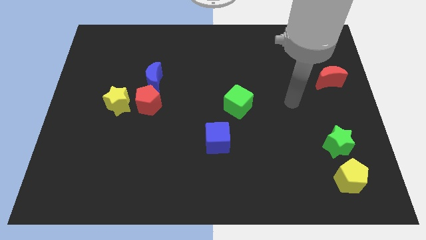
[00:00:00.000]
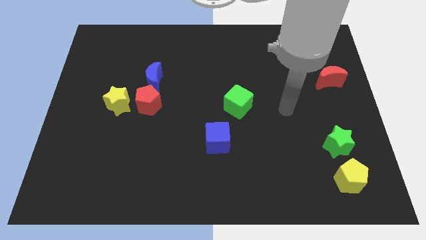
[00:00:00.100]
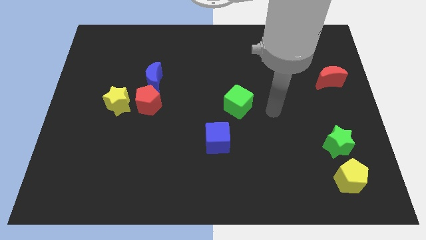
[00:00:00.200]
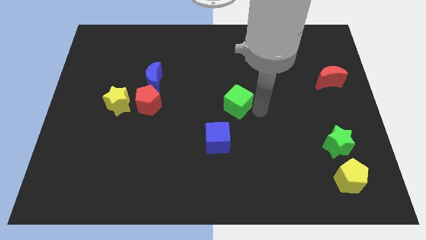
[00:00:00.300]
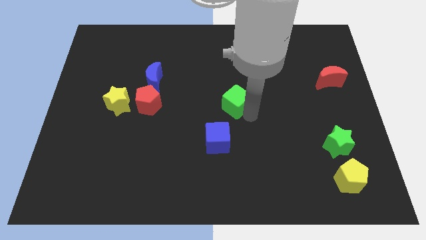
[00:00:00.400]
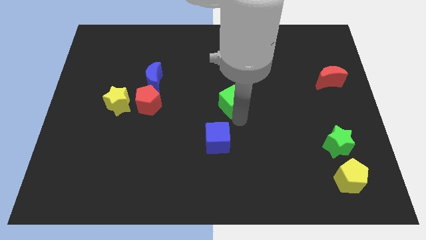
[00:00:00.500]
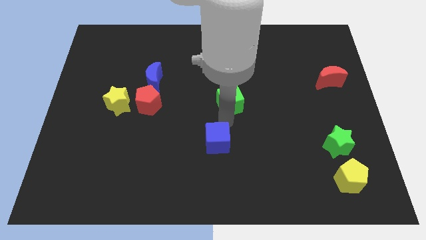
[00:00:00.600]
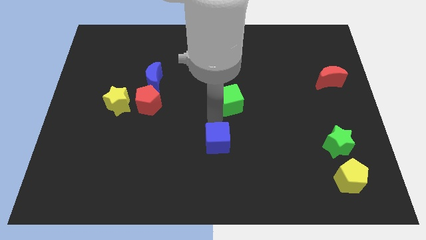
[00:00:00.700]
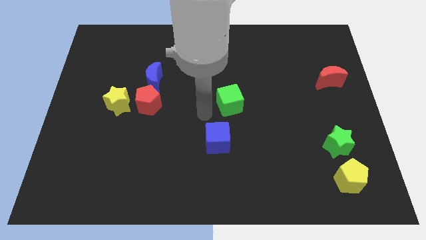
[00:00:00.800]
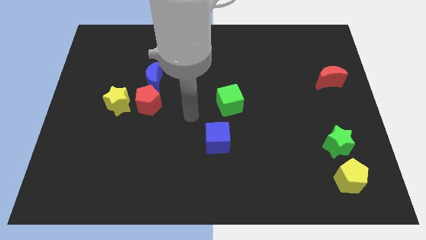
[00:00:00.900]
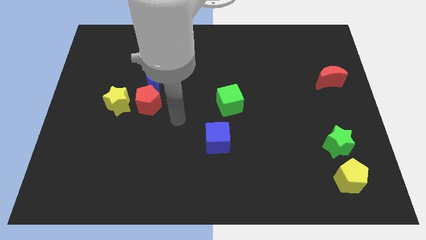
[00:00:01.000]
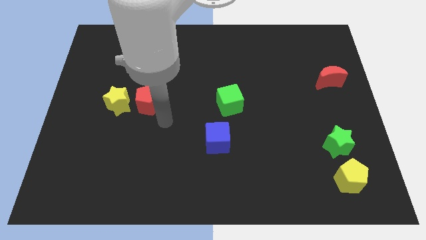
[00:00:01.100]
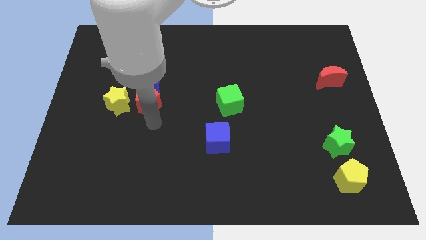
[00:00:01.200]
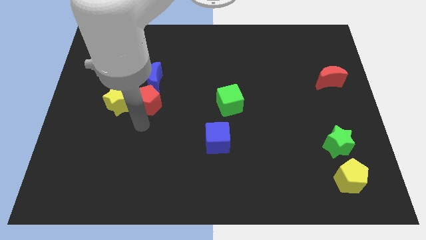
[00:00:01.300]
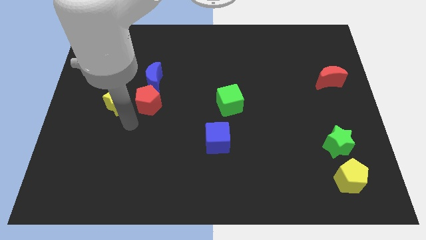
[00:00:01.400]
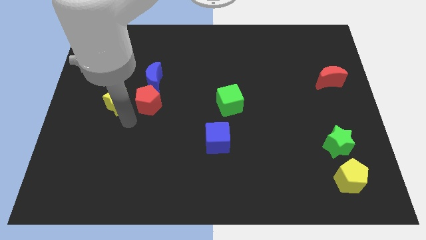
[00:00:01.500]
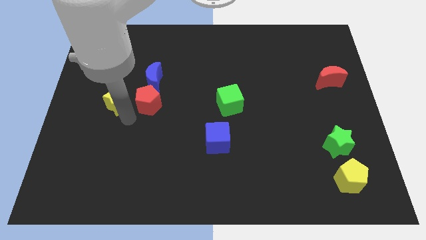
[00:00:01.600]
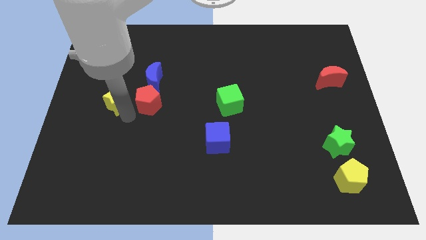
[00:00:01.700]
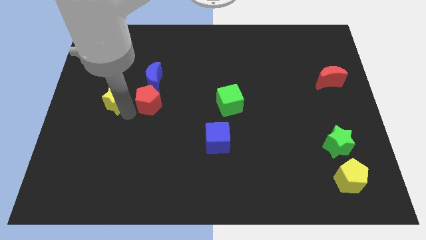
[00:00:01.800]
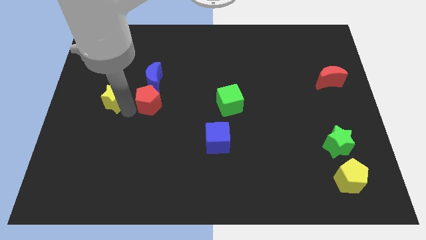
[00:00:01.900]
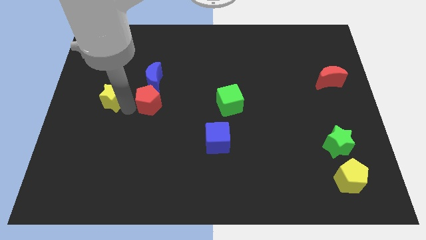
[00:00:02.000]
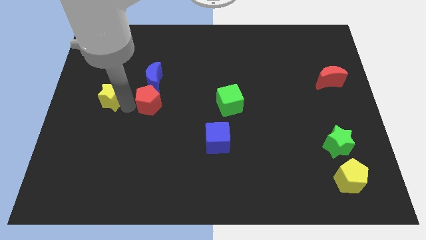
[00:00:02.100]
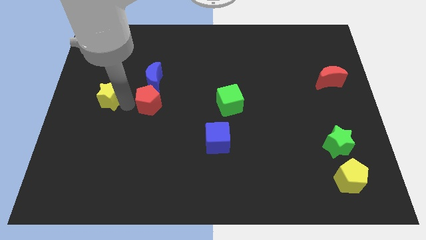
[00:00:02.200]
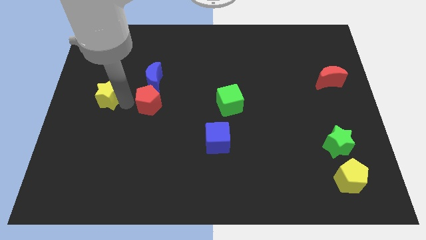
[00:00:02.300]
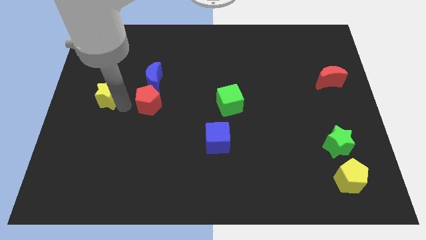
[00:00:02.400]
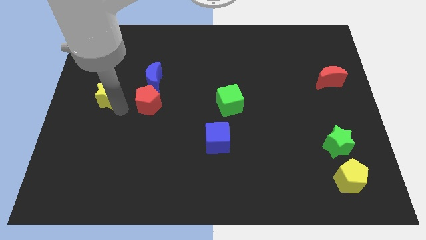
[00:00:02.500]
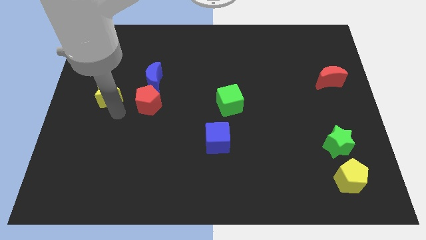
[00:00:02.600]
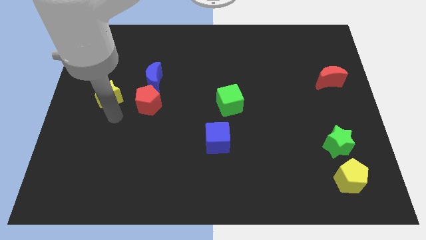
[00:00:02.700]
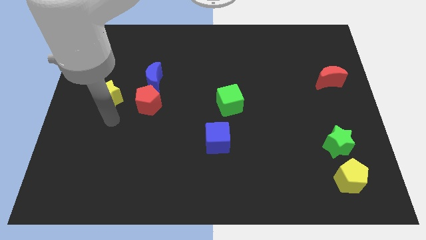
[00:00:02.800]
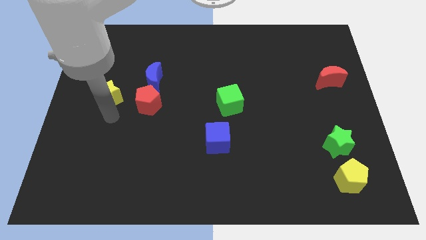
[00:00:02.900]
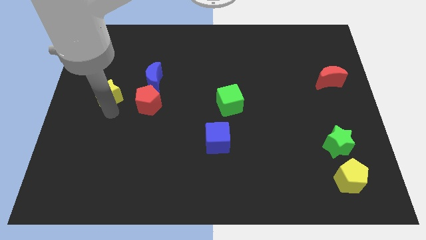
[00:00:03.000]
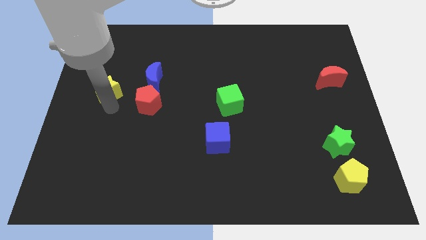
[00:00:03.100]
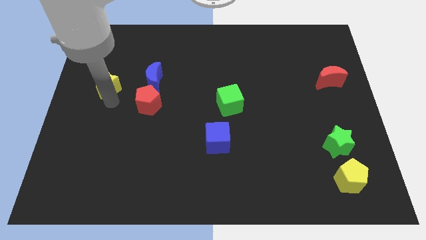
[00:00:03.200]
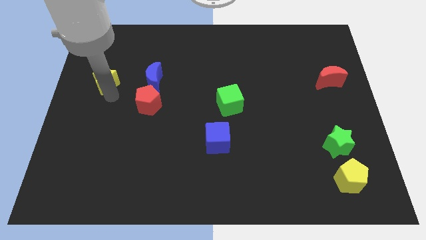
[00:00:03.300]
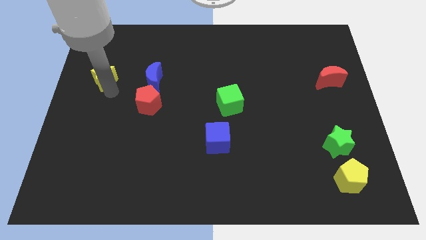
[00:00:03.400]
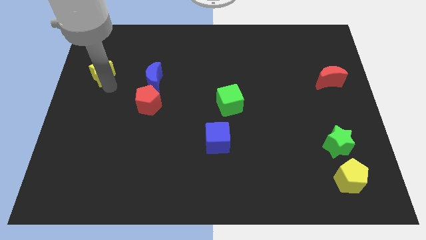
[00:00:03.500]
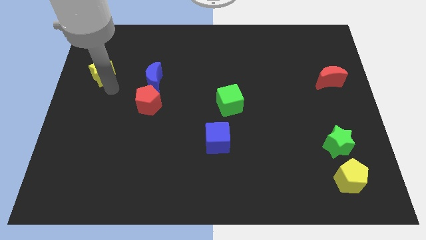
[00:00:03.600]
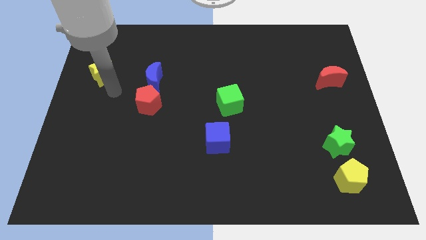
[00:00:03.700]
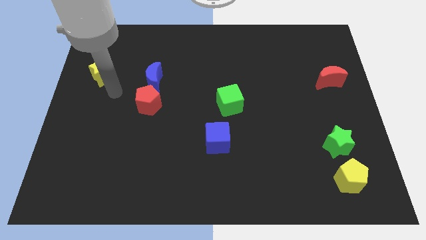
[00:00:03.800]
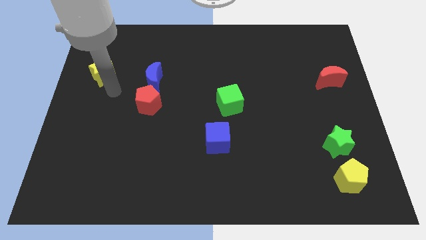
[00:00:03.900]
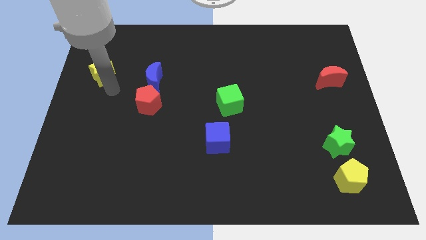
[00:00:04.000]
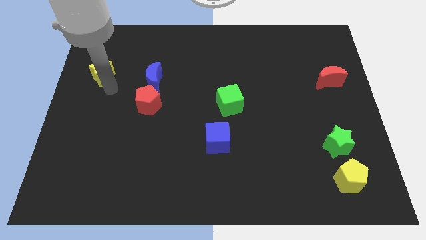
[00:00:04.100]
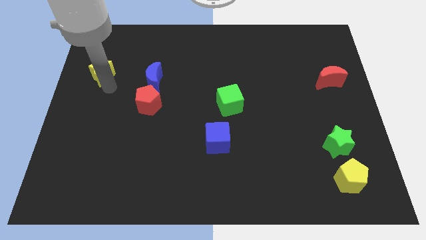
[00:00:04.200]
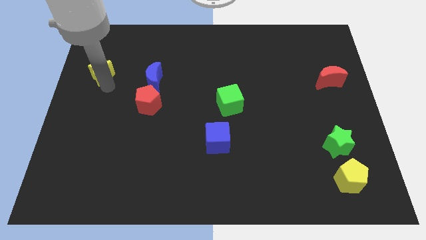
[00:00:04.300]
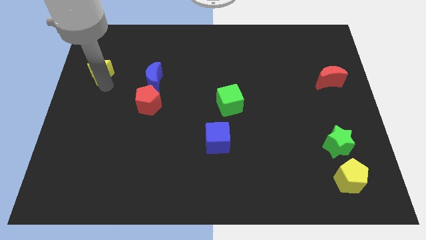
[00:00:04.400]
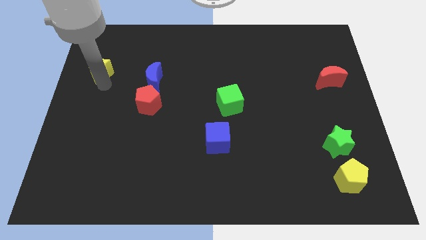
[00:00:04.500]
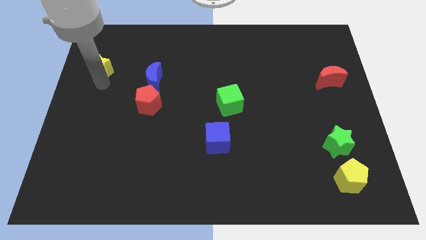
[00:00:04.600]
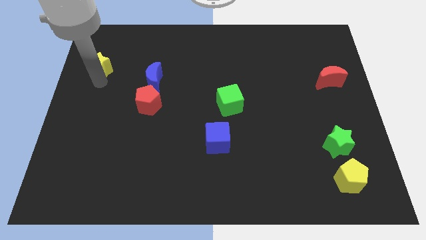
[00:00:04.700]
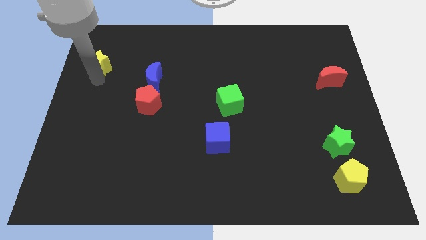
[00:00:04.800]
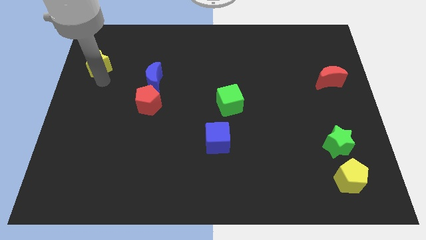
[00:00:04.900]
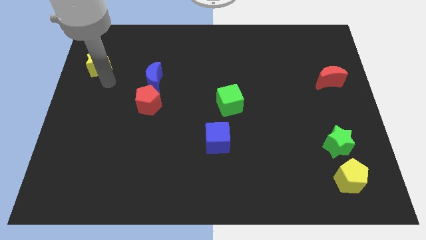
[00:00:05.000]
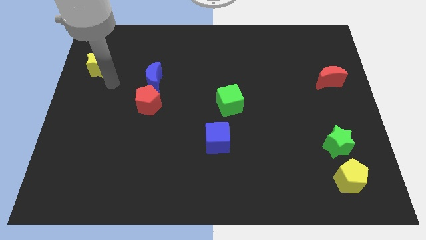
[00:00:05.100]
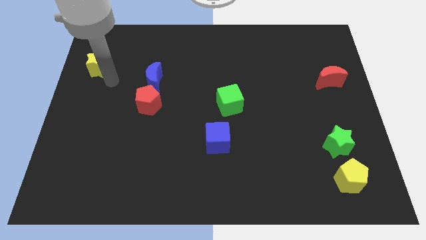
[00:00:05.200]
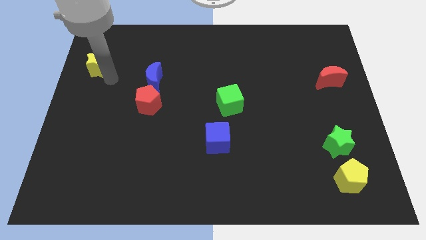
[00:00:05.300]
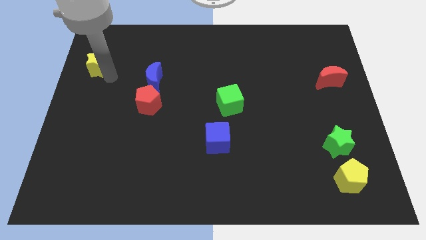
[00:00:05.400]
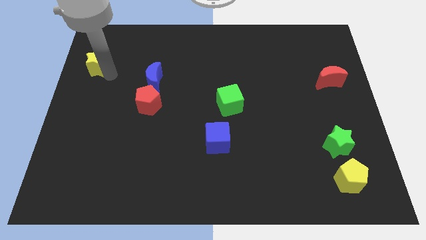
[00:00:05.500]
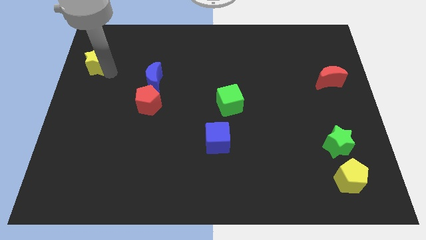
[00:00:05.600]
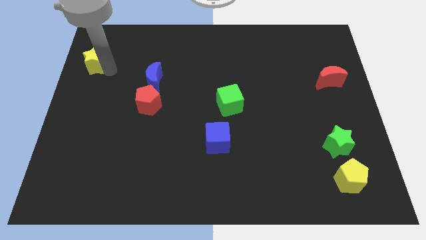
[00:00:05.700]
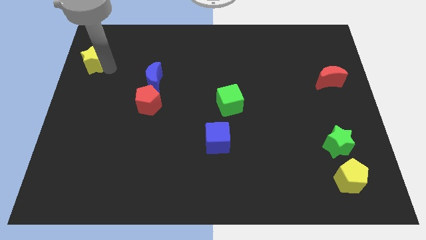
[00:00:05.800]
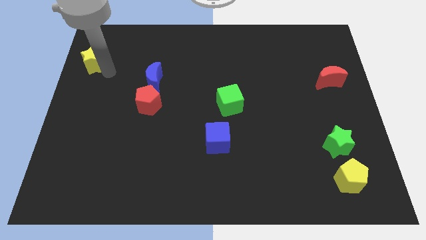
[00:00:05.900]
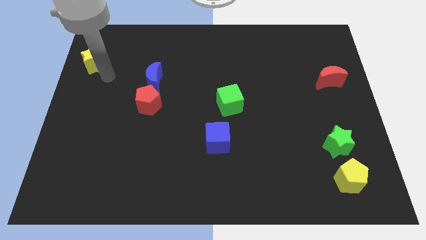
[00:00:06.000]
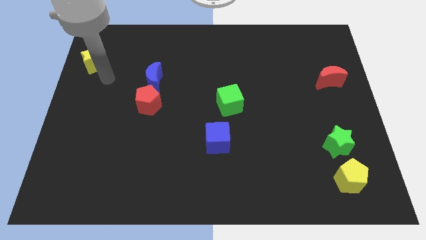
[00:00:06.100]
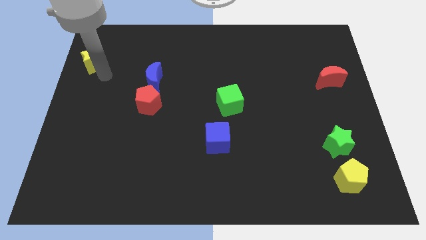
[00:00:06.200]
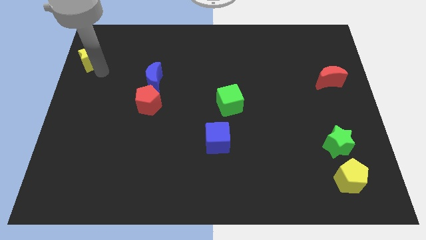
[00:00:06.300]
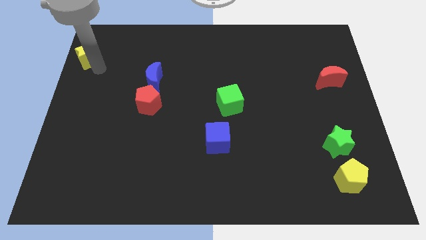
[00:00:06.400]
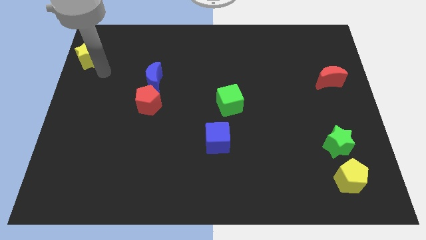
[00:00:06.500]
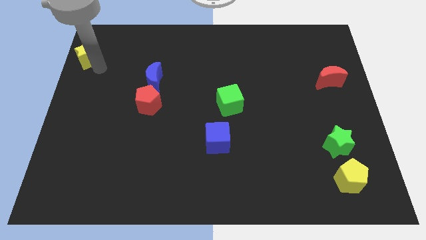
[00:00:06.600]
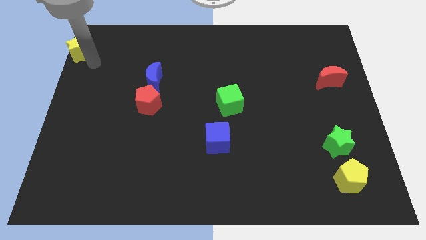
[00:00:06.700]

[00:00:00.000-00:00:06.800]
slide the yellow star to the top left corner
